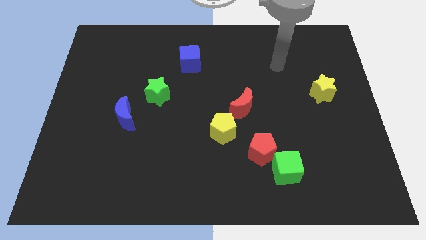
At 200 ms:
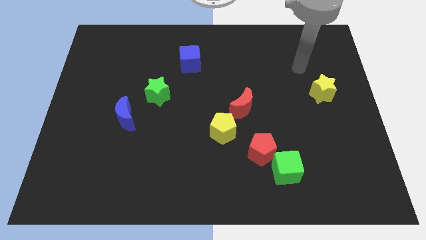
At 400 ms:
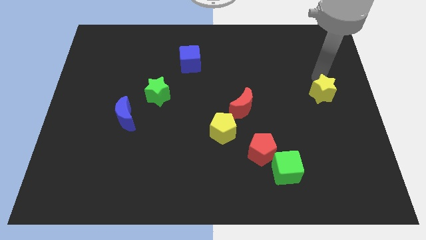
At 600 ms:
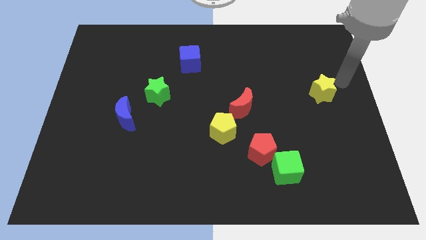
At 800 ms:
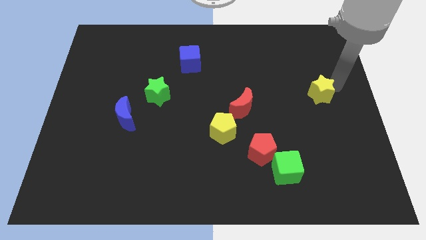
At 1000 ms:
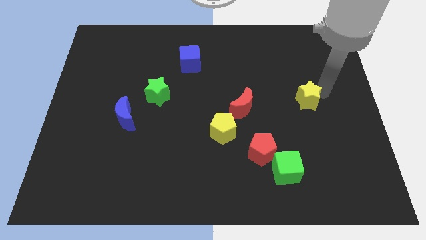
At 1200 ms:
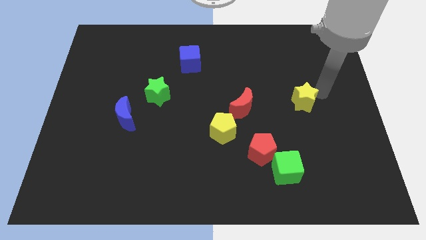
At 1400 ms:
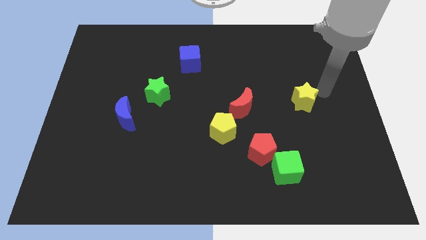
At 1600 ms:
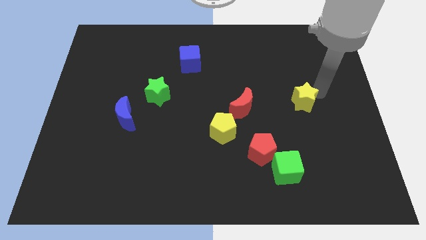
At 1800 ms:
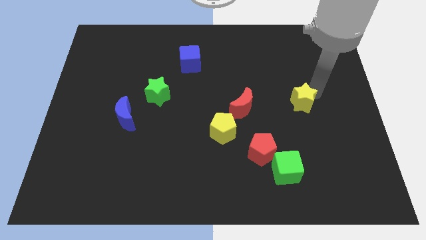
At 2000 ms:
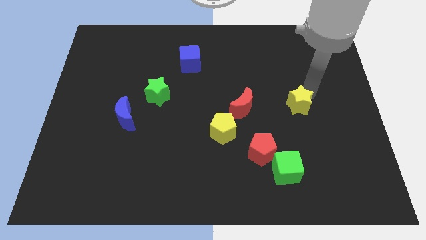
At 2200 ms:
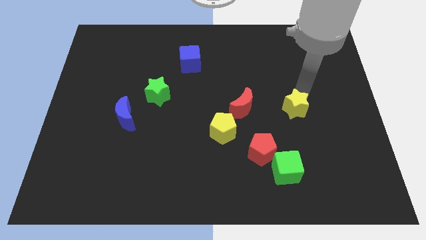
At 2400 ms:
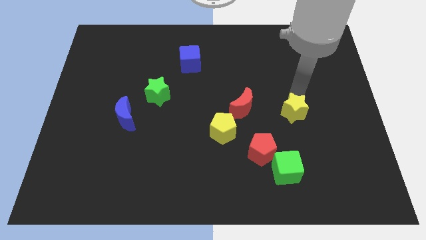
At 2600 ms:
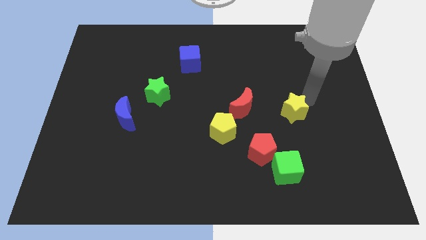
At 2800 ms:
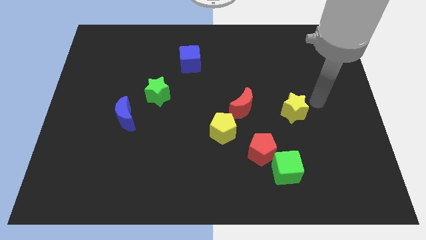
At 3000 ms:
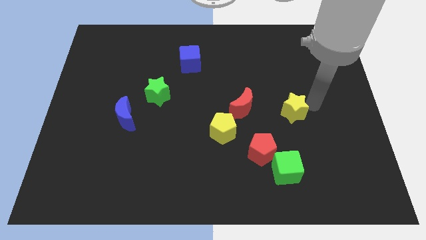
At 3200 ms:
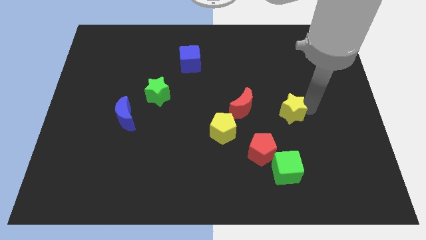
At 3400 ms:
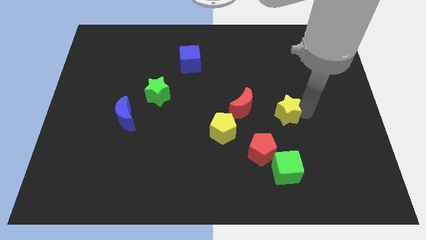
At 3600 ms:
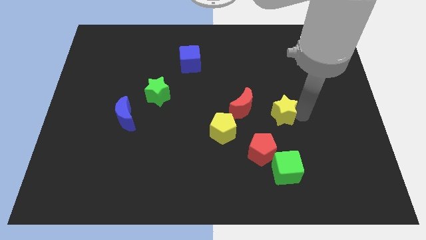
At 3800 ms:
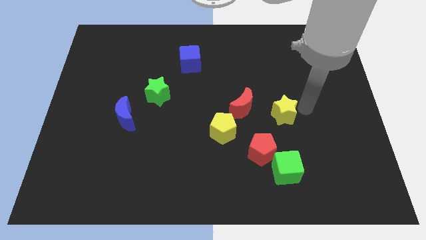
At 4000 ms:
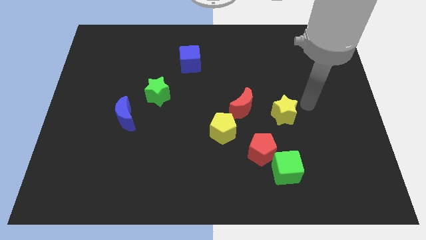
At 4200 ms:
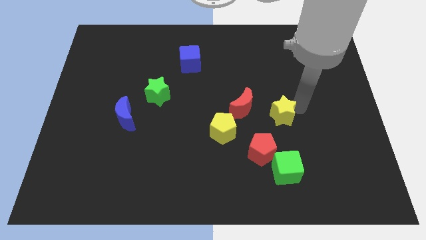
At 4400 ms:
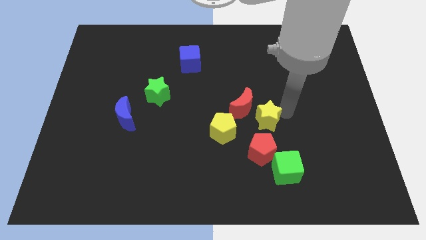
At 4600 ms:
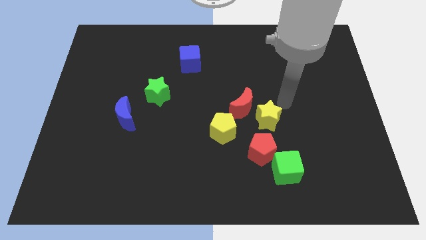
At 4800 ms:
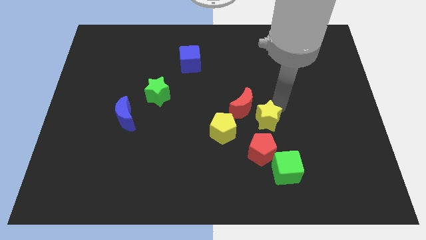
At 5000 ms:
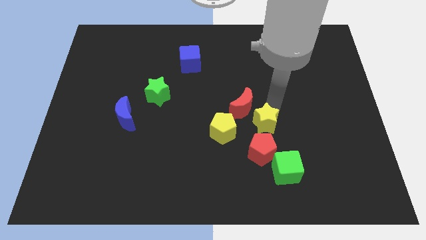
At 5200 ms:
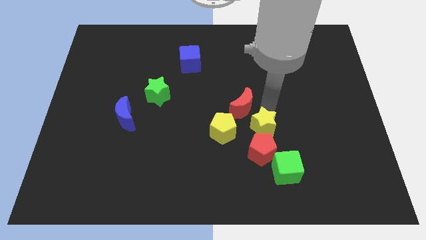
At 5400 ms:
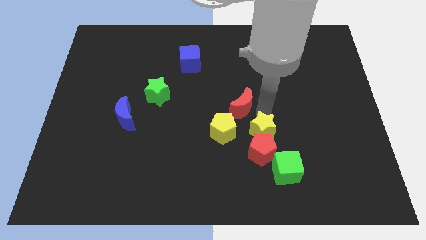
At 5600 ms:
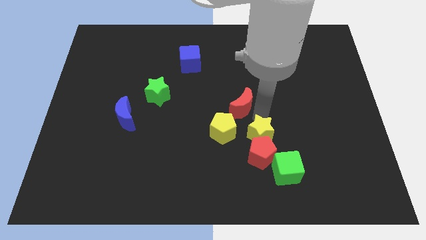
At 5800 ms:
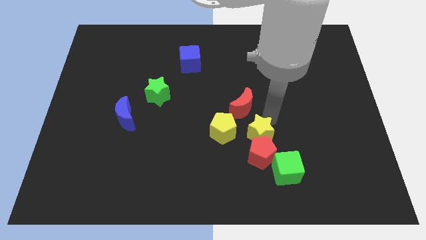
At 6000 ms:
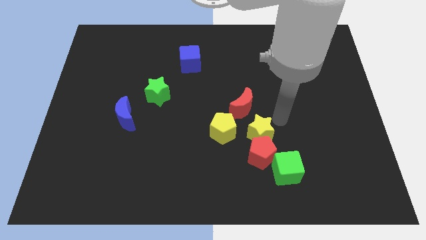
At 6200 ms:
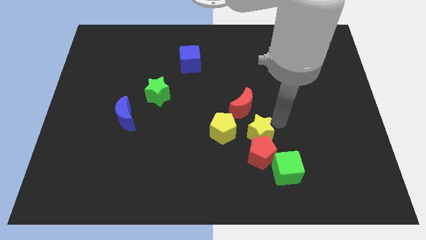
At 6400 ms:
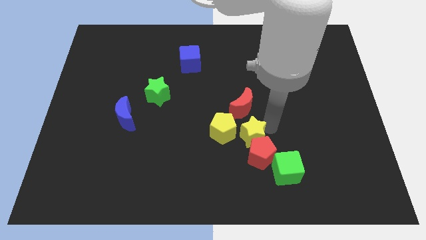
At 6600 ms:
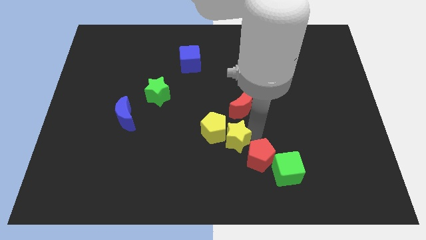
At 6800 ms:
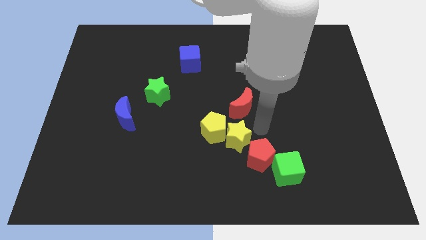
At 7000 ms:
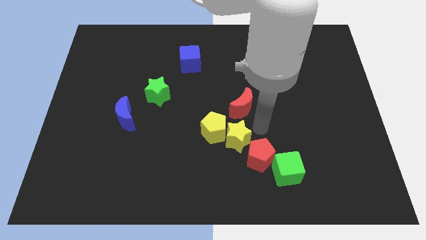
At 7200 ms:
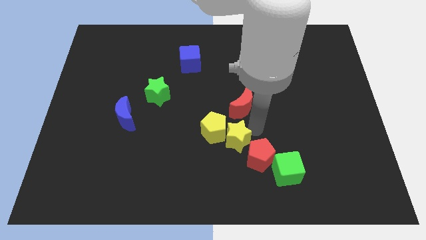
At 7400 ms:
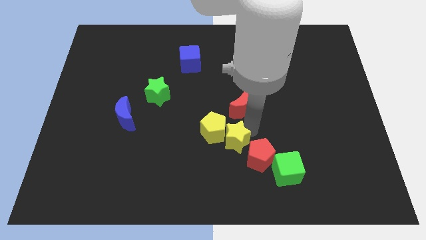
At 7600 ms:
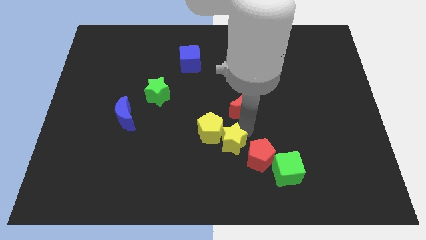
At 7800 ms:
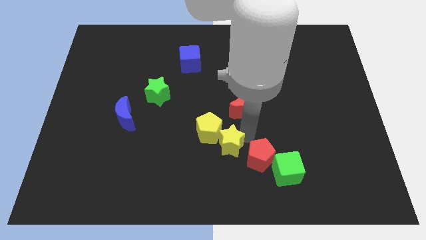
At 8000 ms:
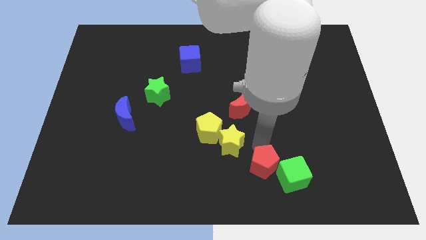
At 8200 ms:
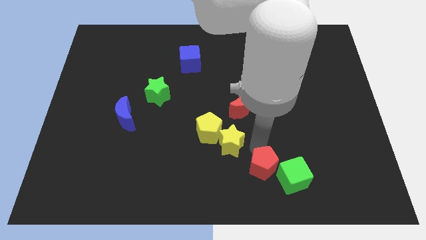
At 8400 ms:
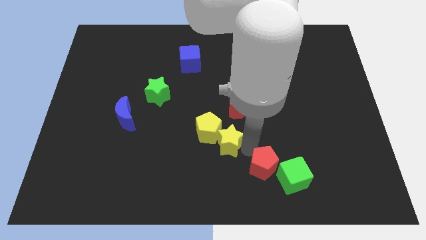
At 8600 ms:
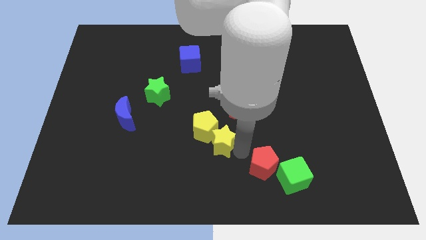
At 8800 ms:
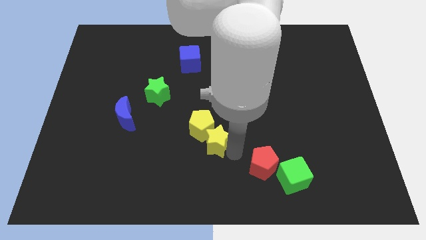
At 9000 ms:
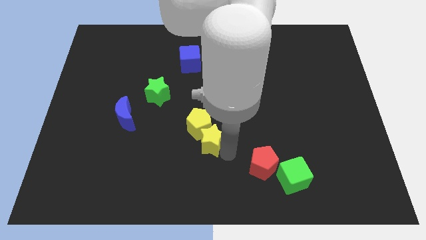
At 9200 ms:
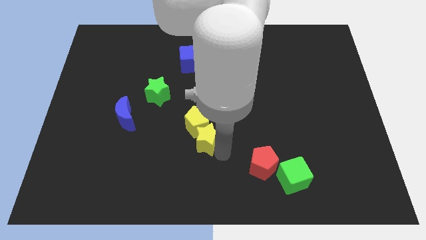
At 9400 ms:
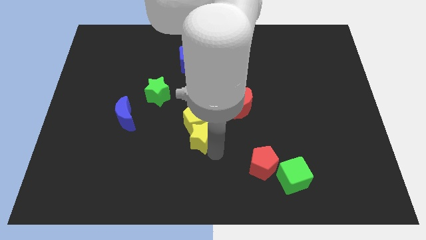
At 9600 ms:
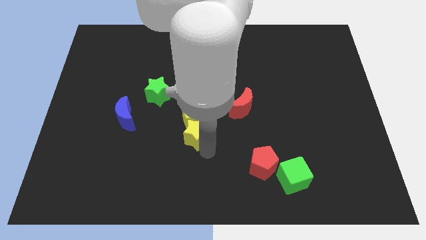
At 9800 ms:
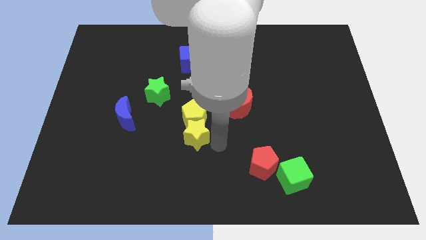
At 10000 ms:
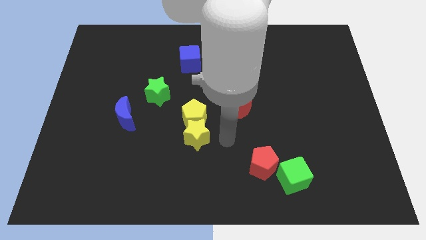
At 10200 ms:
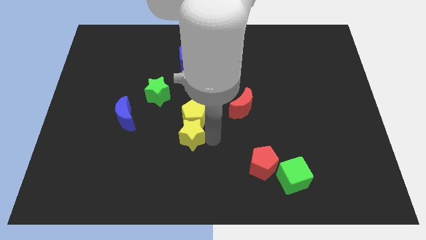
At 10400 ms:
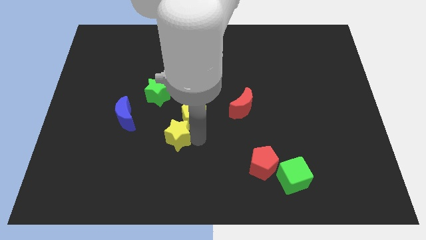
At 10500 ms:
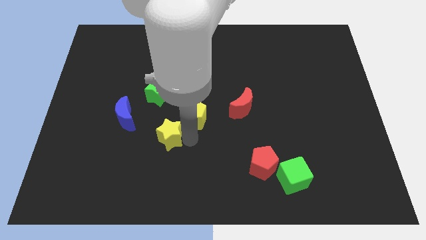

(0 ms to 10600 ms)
put the yellow star below the green star

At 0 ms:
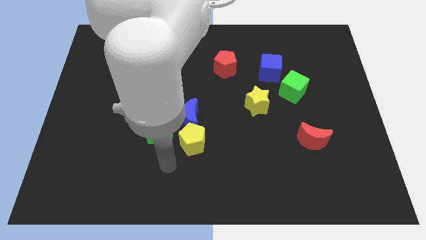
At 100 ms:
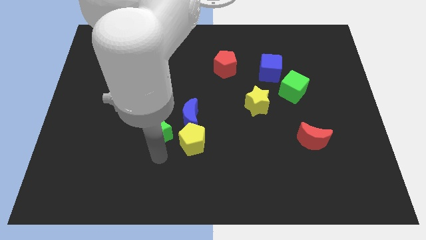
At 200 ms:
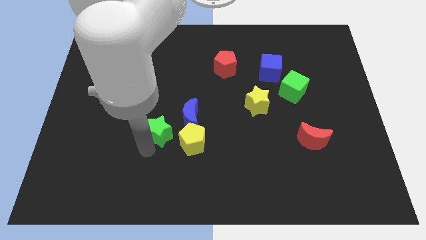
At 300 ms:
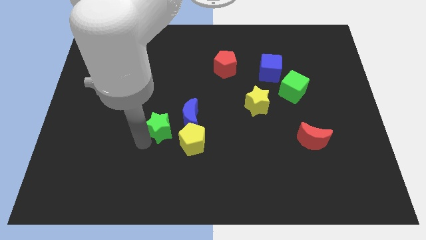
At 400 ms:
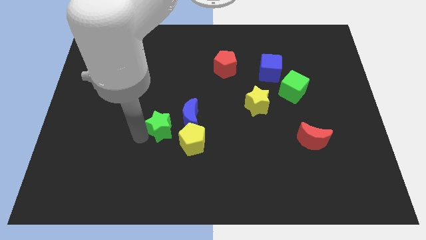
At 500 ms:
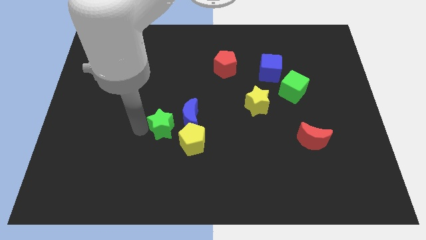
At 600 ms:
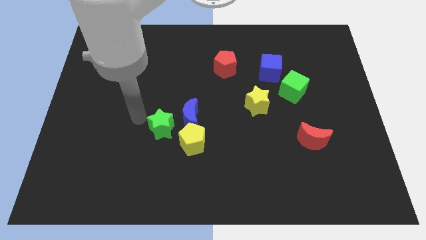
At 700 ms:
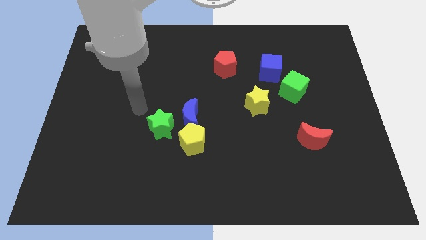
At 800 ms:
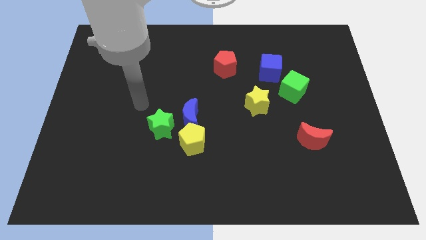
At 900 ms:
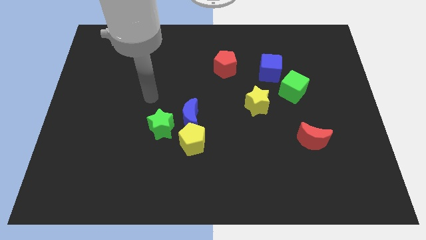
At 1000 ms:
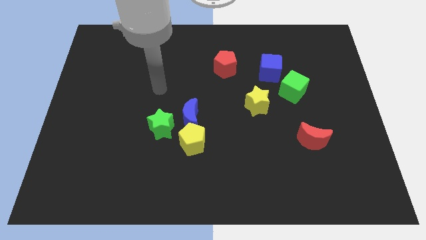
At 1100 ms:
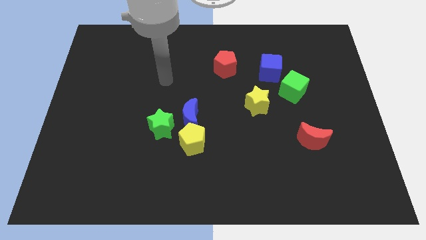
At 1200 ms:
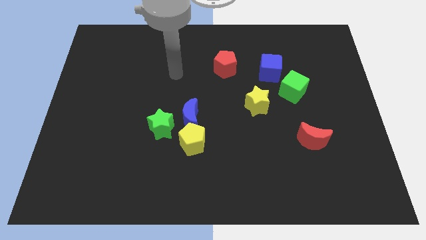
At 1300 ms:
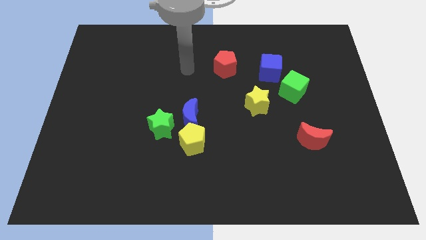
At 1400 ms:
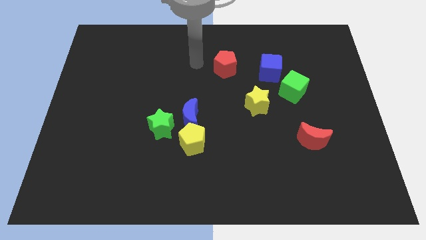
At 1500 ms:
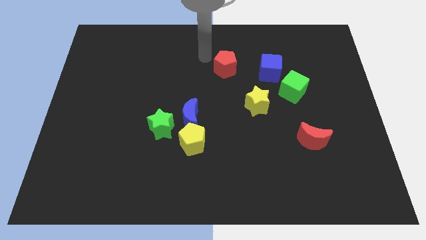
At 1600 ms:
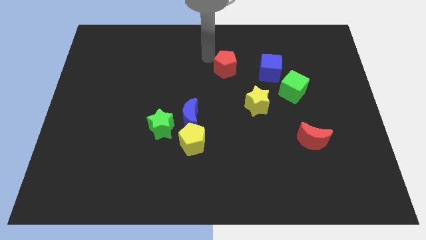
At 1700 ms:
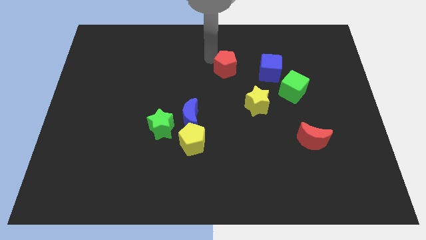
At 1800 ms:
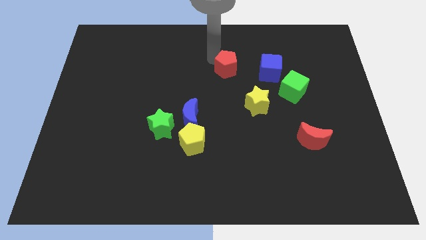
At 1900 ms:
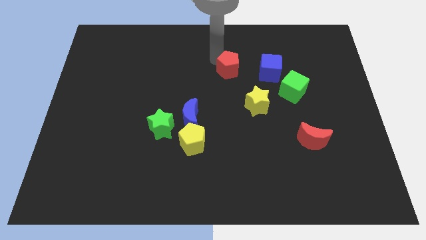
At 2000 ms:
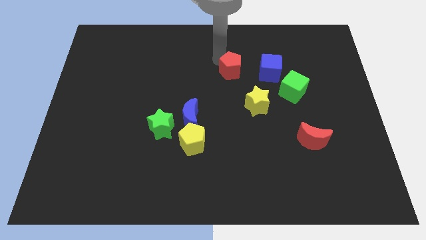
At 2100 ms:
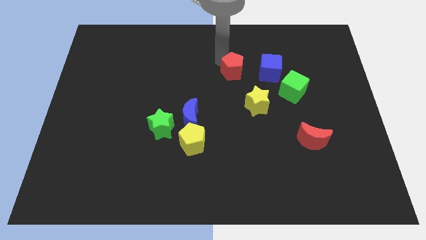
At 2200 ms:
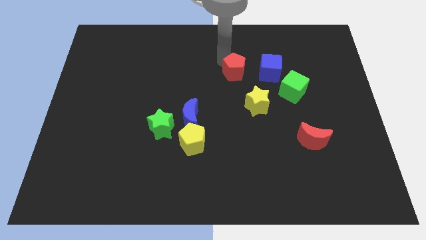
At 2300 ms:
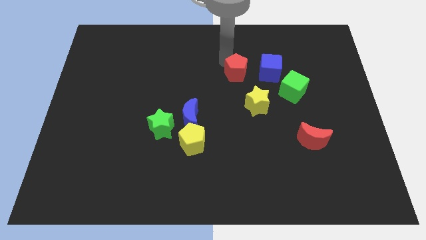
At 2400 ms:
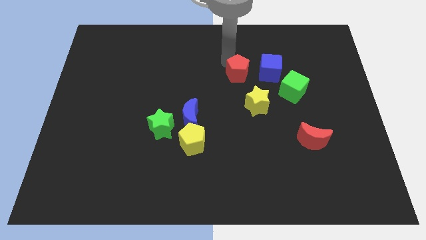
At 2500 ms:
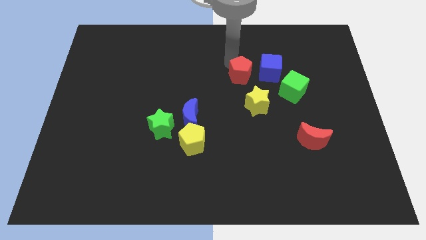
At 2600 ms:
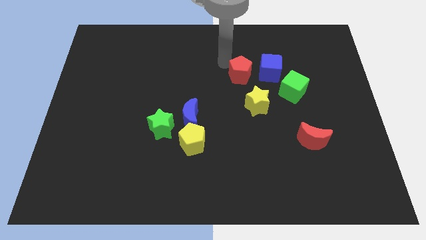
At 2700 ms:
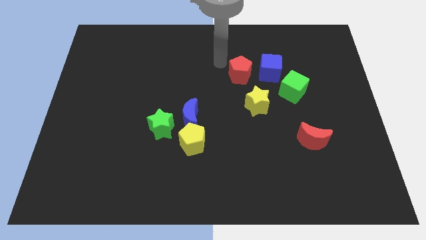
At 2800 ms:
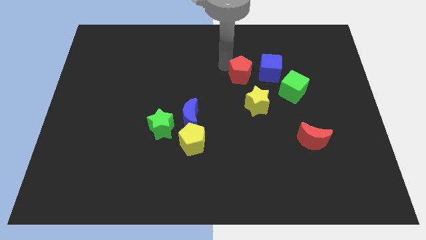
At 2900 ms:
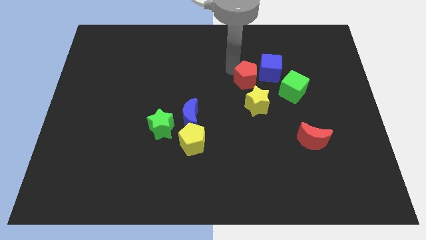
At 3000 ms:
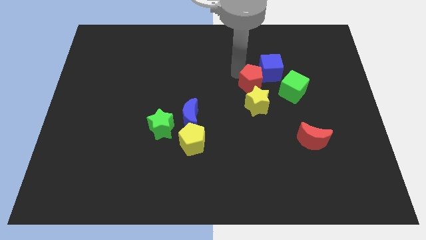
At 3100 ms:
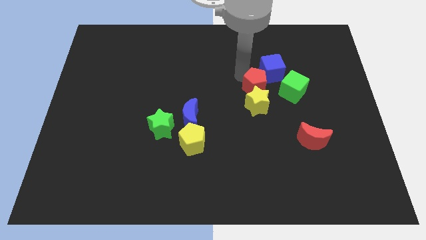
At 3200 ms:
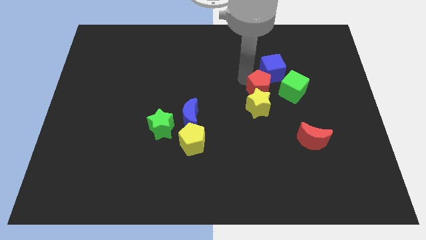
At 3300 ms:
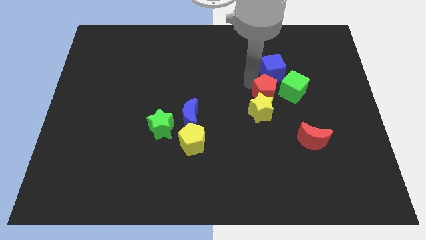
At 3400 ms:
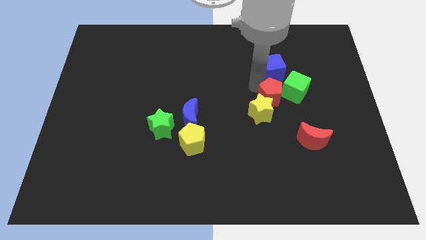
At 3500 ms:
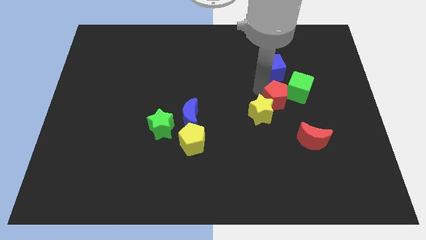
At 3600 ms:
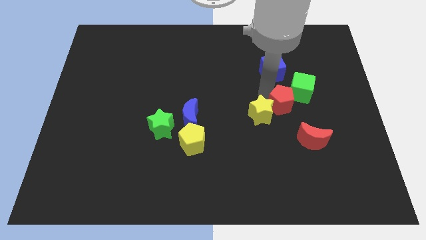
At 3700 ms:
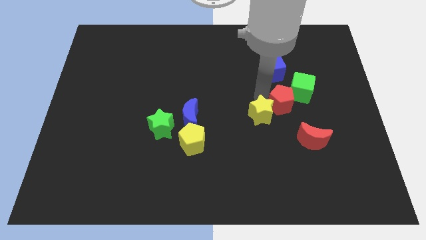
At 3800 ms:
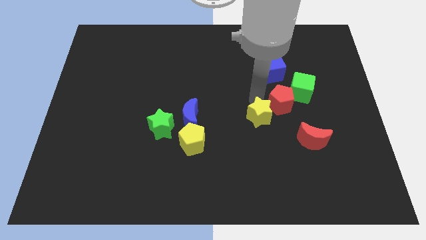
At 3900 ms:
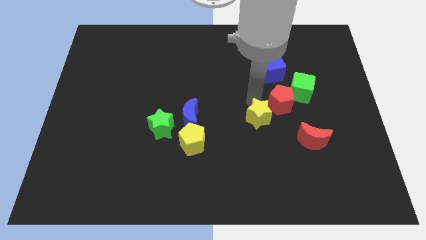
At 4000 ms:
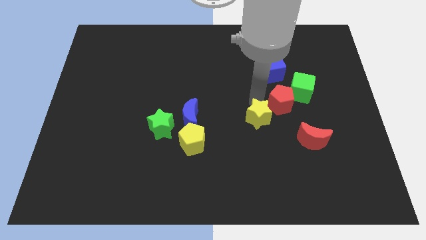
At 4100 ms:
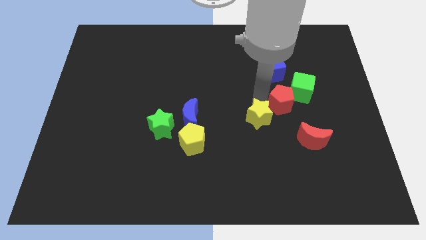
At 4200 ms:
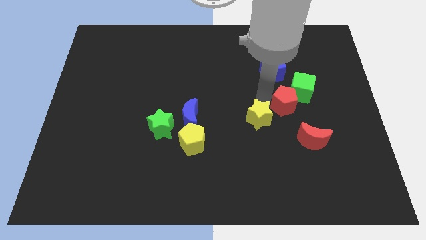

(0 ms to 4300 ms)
move the red pentagon to the top side of the red moon
